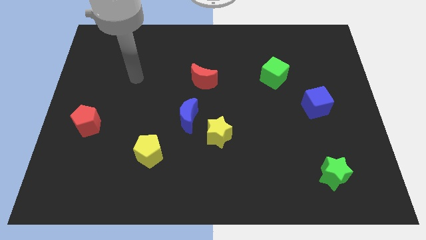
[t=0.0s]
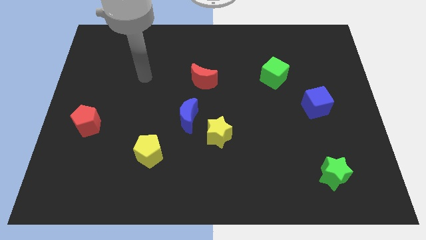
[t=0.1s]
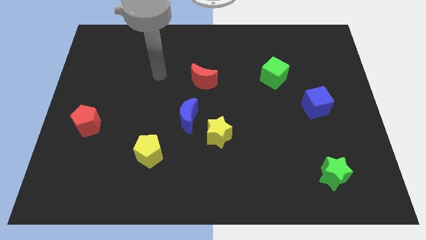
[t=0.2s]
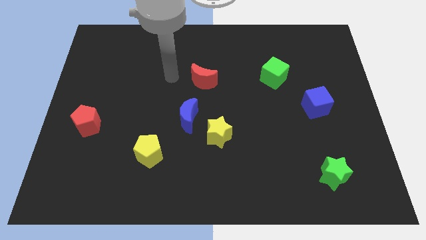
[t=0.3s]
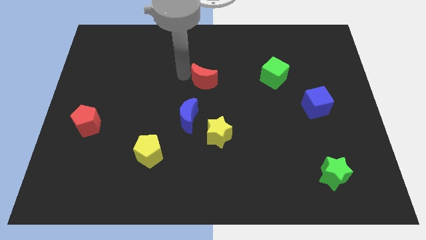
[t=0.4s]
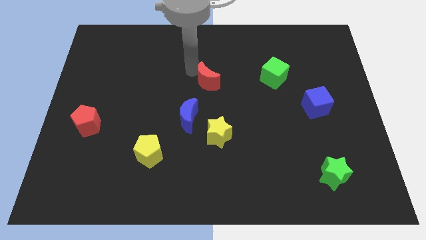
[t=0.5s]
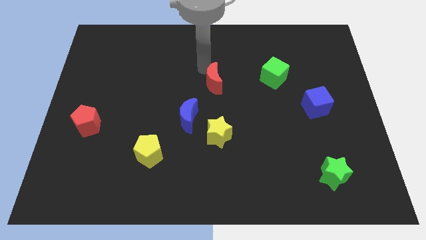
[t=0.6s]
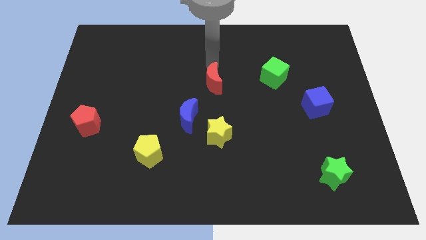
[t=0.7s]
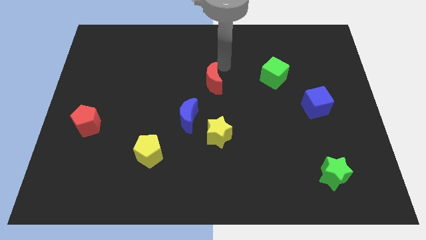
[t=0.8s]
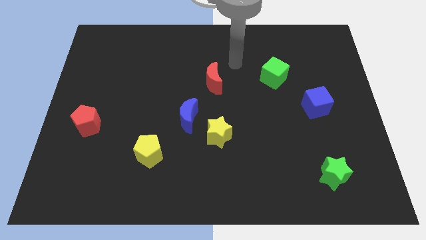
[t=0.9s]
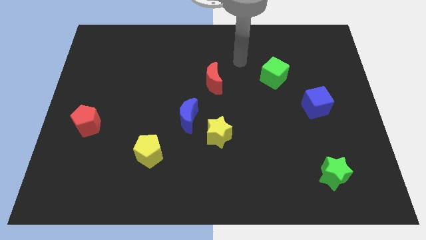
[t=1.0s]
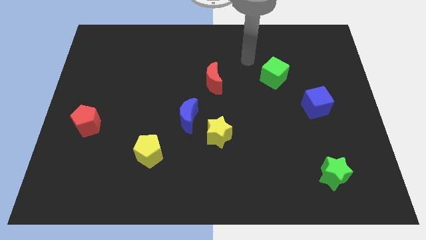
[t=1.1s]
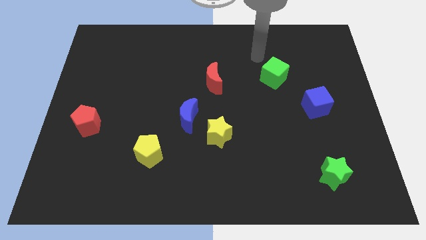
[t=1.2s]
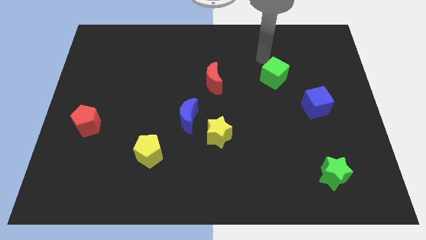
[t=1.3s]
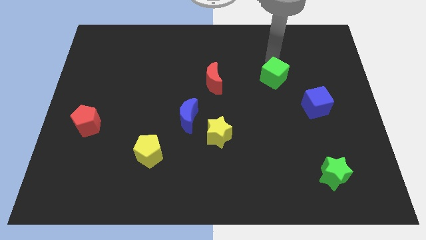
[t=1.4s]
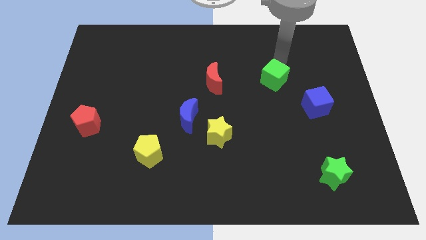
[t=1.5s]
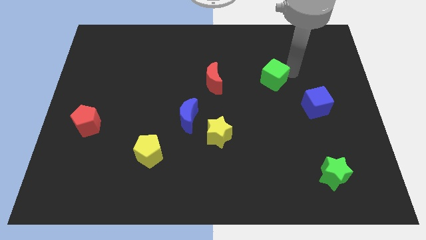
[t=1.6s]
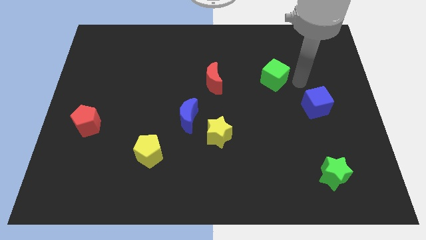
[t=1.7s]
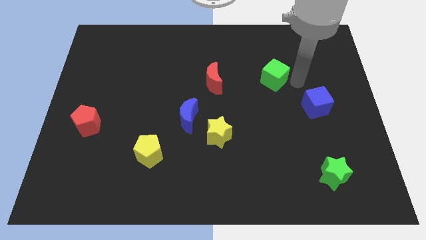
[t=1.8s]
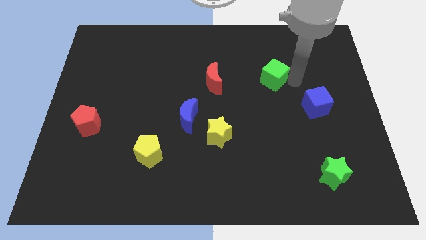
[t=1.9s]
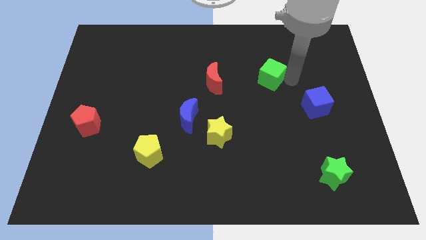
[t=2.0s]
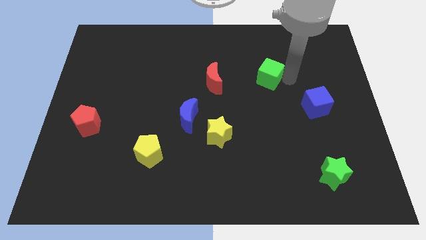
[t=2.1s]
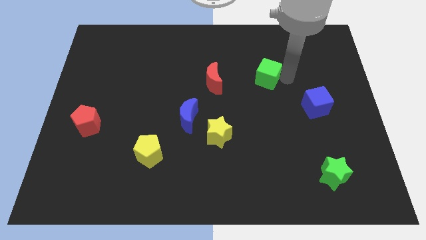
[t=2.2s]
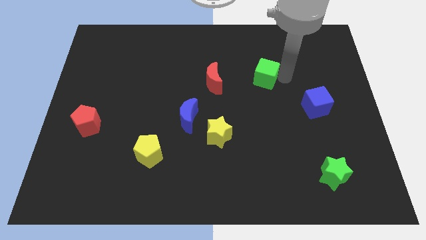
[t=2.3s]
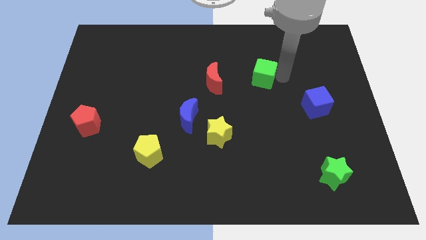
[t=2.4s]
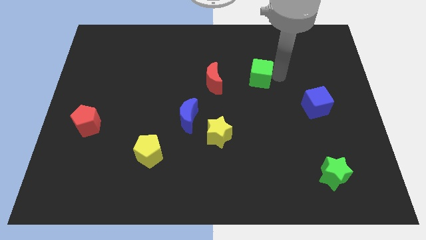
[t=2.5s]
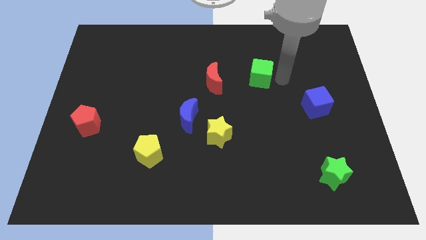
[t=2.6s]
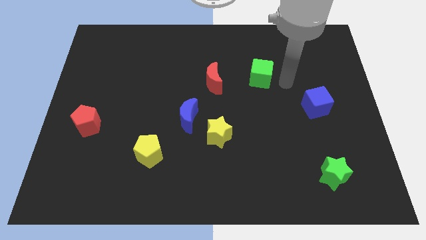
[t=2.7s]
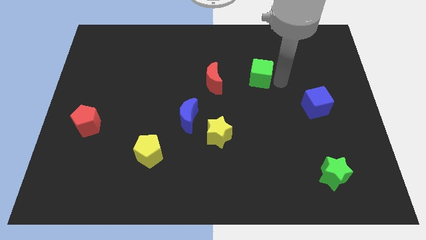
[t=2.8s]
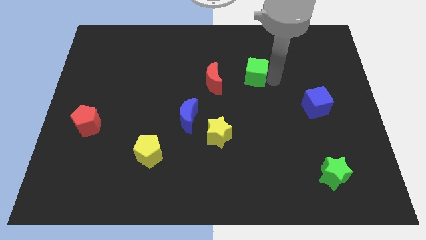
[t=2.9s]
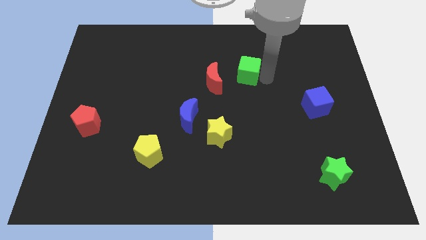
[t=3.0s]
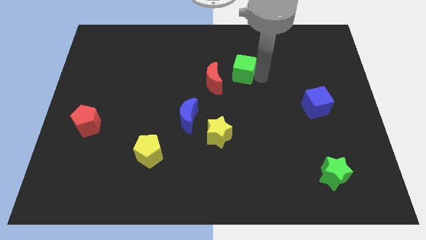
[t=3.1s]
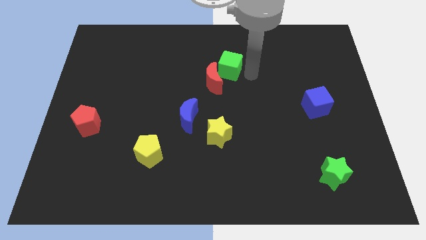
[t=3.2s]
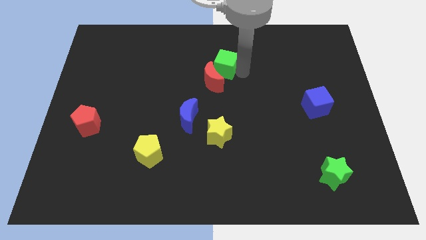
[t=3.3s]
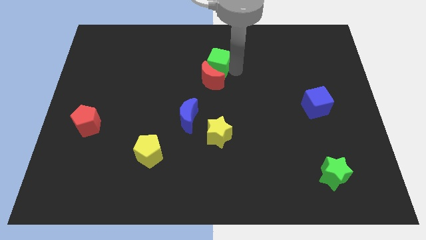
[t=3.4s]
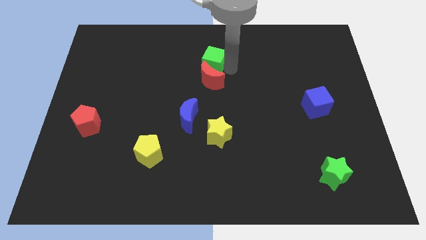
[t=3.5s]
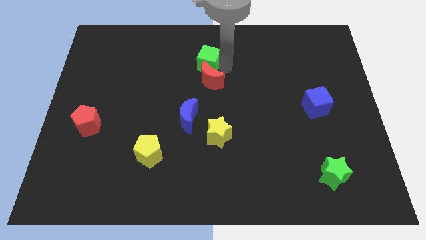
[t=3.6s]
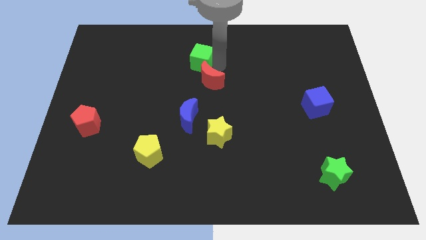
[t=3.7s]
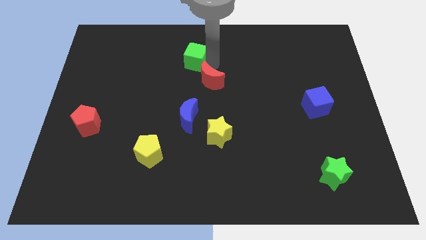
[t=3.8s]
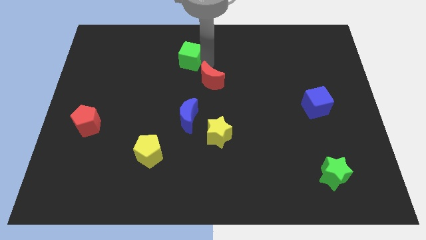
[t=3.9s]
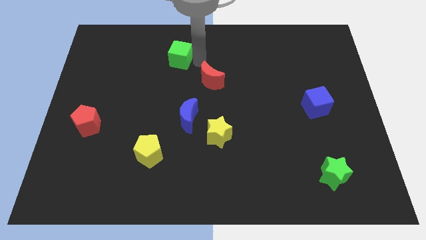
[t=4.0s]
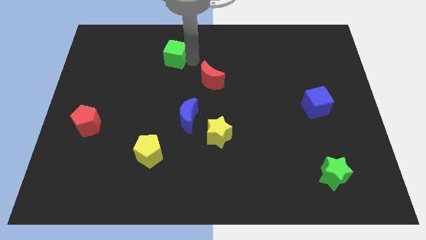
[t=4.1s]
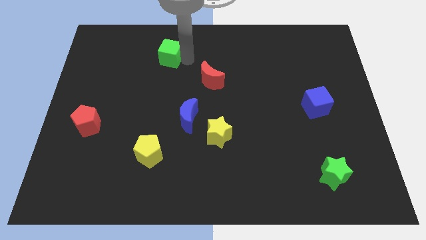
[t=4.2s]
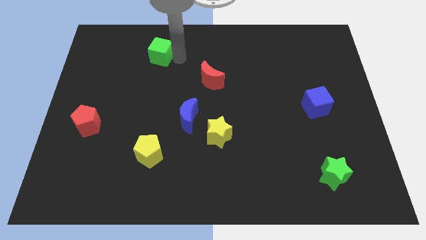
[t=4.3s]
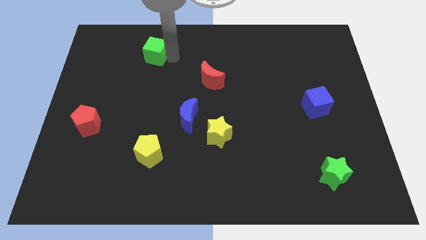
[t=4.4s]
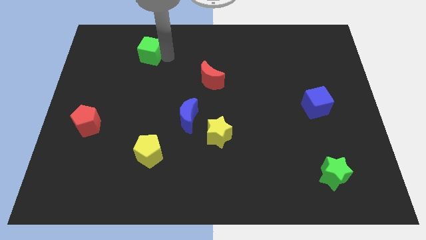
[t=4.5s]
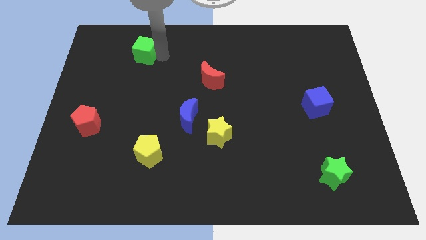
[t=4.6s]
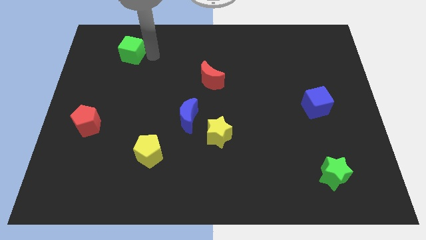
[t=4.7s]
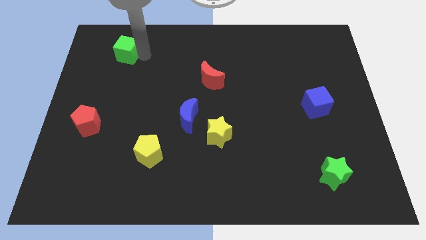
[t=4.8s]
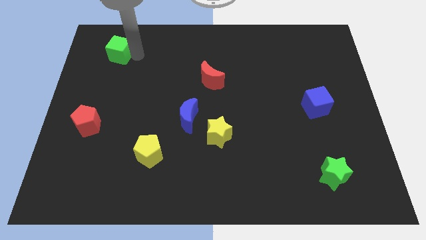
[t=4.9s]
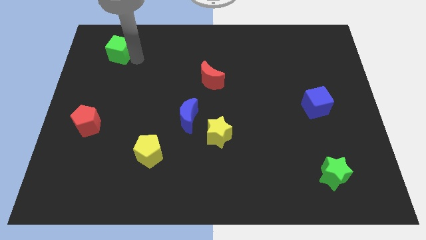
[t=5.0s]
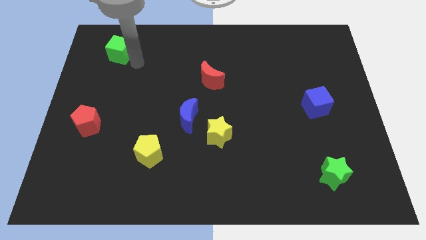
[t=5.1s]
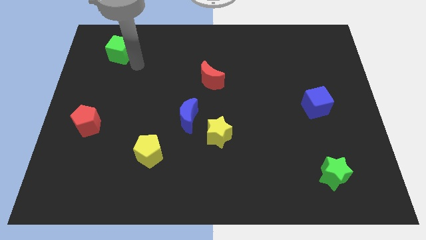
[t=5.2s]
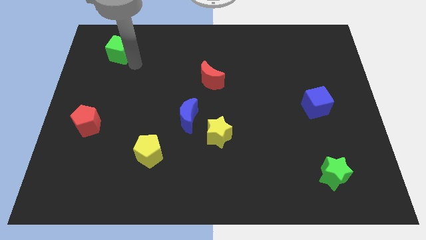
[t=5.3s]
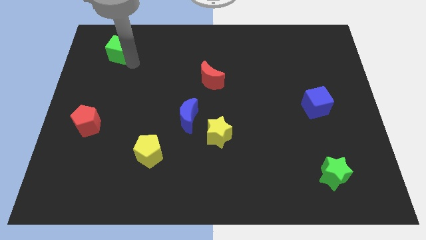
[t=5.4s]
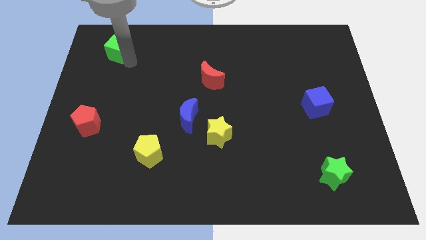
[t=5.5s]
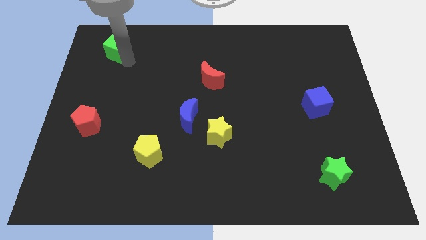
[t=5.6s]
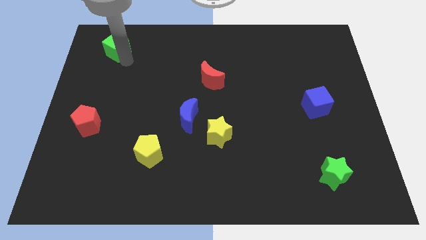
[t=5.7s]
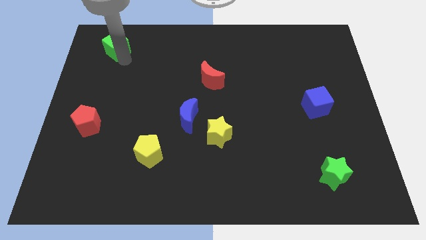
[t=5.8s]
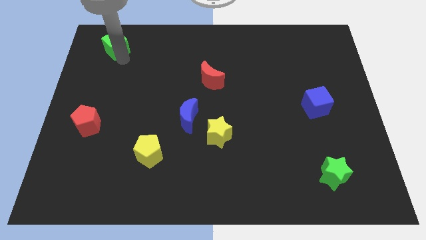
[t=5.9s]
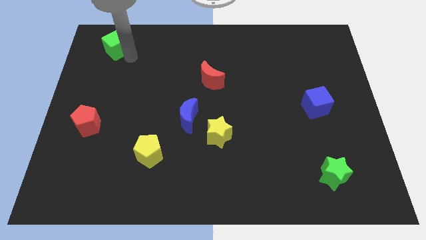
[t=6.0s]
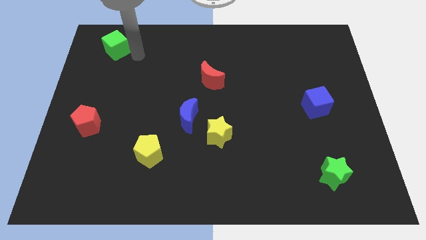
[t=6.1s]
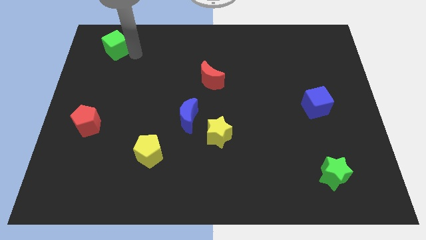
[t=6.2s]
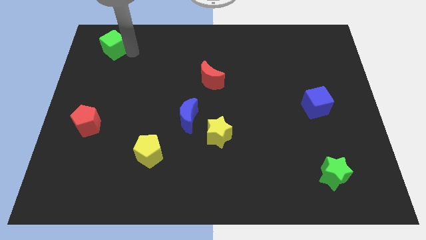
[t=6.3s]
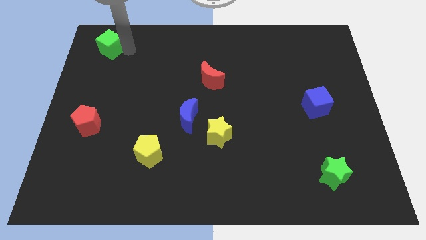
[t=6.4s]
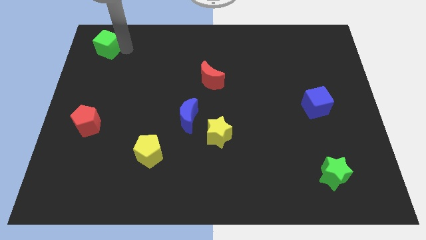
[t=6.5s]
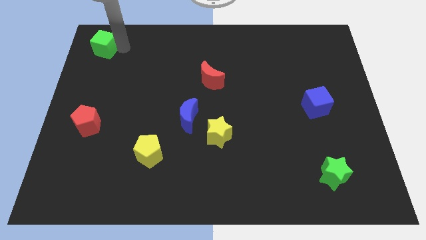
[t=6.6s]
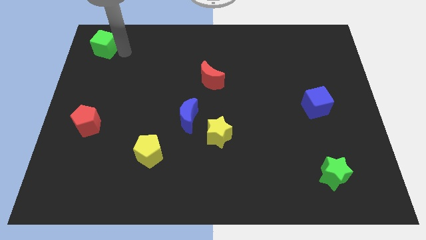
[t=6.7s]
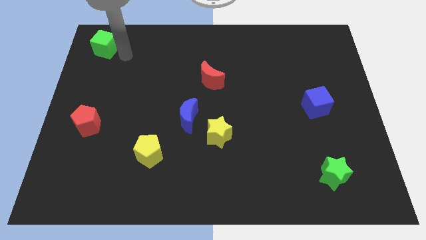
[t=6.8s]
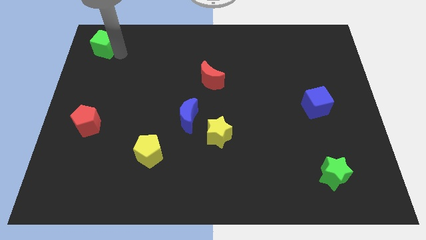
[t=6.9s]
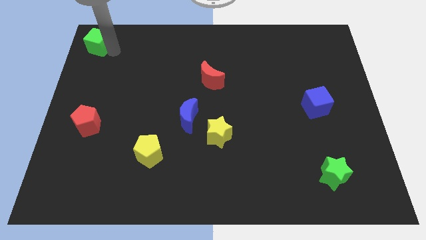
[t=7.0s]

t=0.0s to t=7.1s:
move the green cube to the top left
